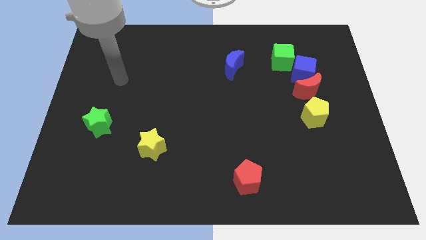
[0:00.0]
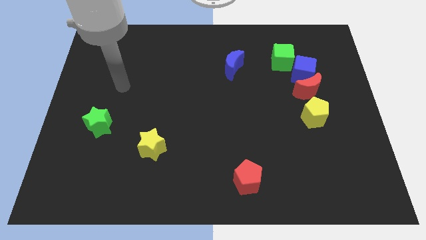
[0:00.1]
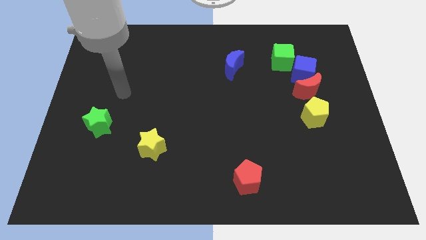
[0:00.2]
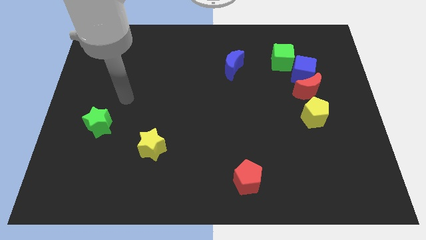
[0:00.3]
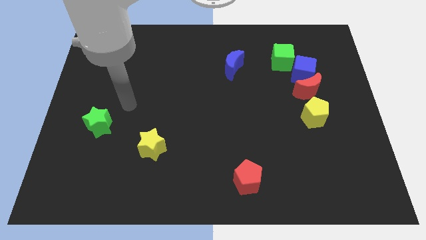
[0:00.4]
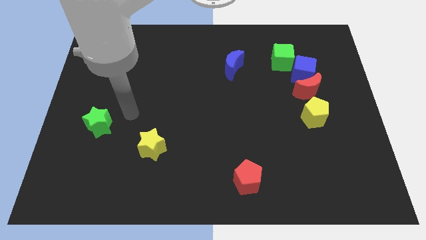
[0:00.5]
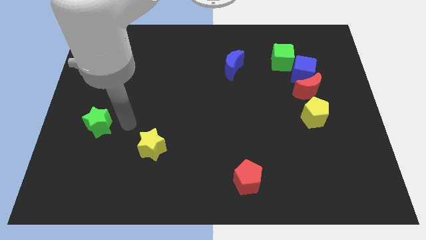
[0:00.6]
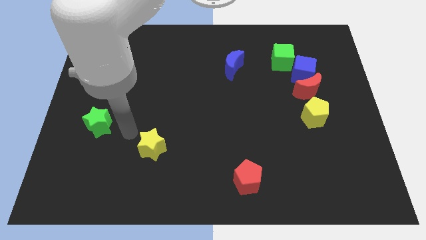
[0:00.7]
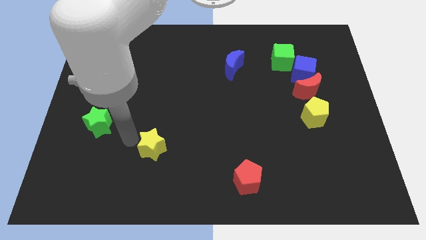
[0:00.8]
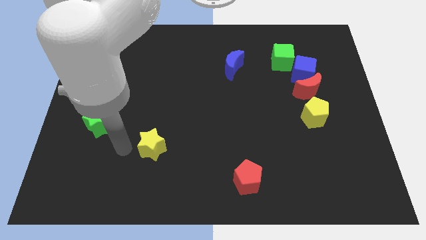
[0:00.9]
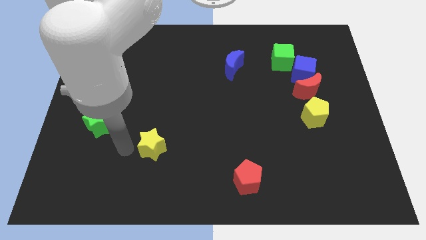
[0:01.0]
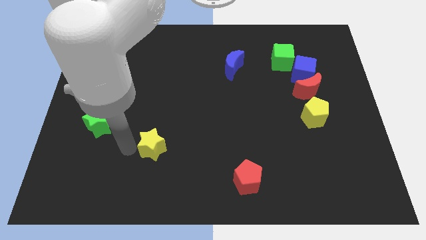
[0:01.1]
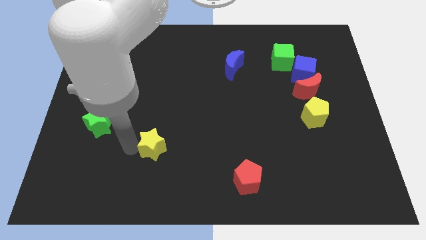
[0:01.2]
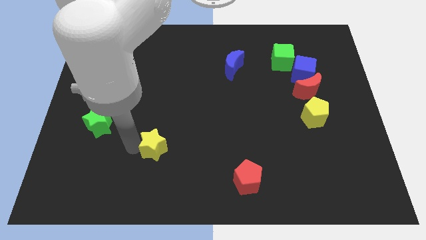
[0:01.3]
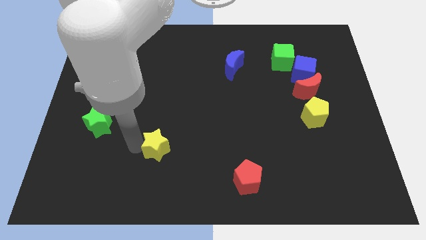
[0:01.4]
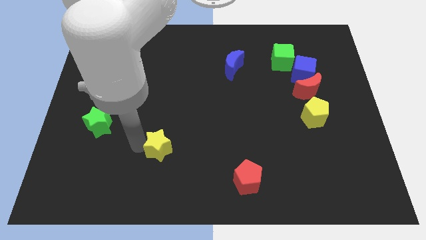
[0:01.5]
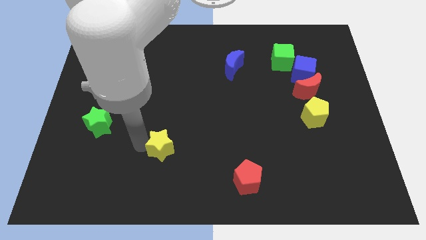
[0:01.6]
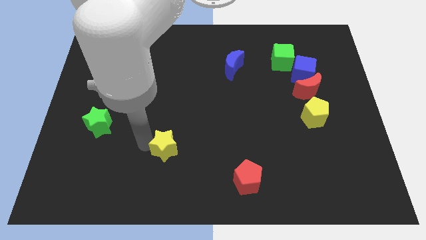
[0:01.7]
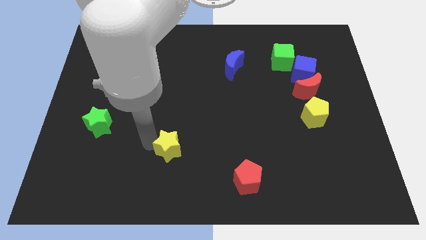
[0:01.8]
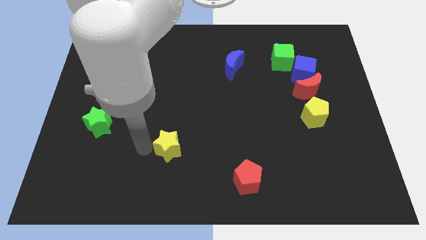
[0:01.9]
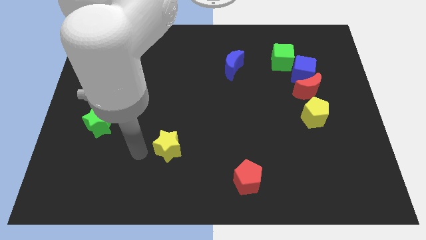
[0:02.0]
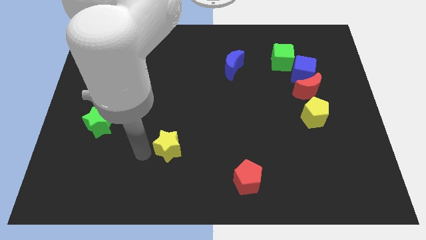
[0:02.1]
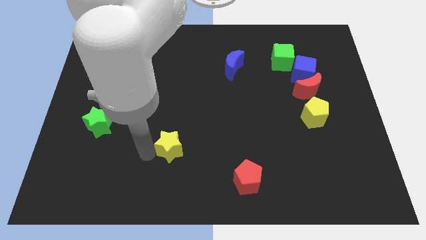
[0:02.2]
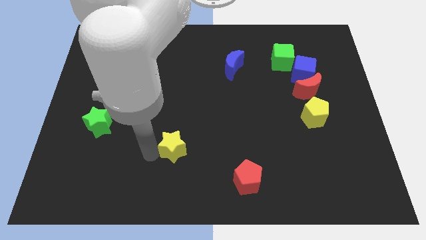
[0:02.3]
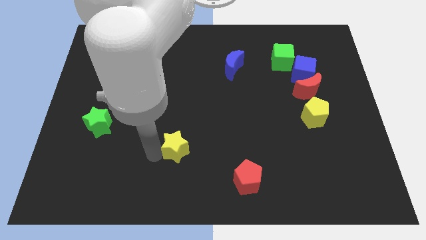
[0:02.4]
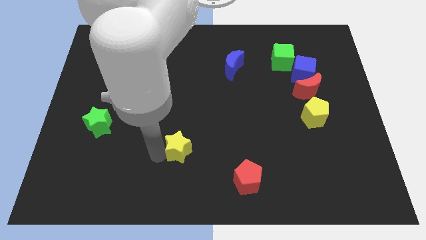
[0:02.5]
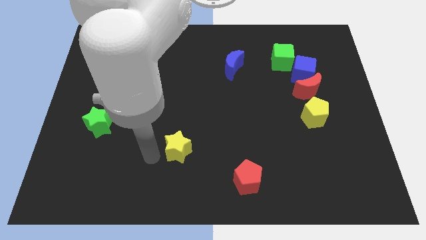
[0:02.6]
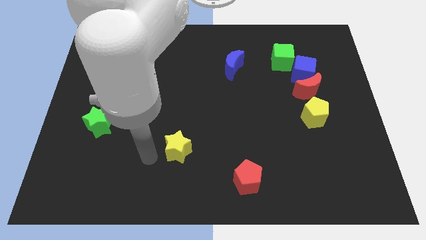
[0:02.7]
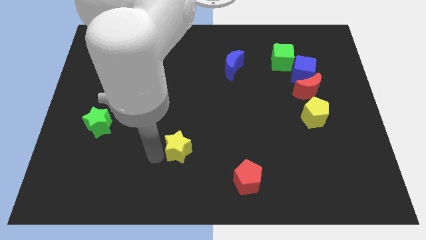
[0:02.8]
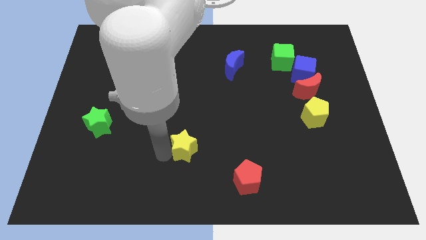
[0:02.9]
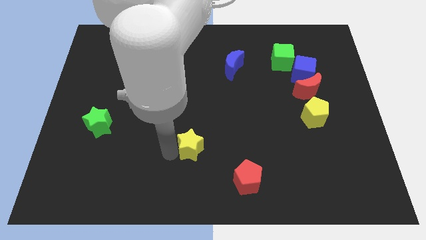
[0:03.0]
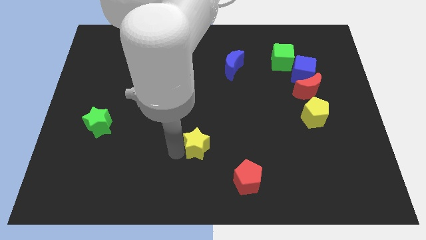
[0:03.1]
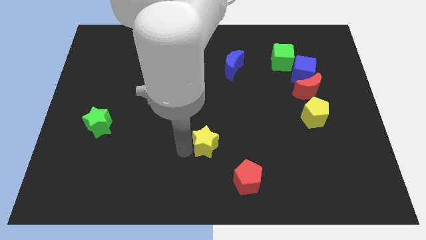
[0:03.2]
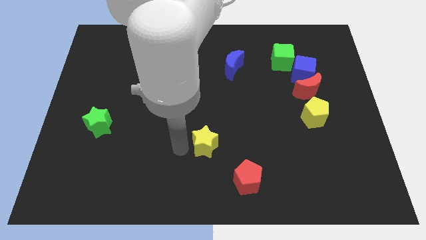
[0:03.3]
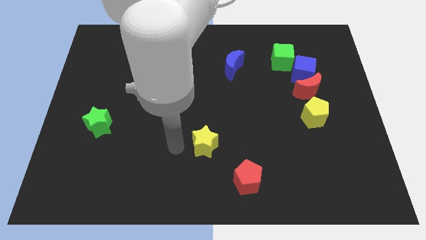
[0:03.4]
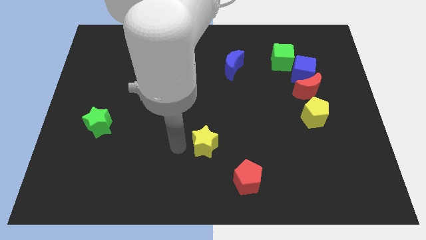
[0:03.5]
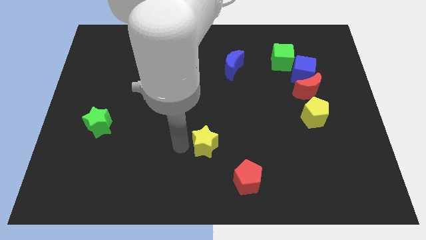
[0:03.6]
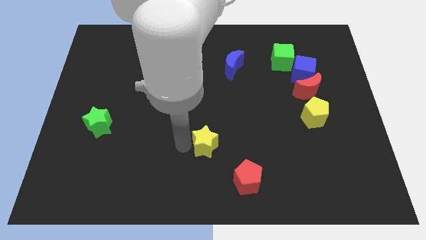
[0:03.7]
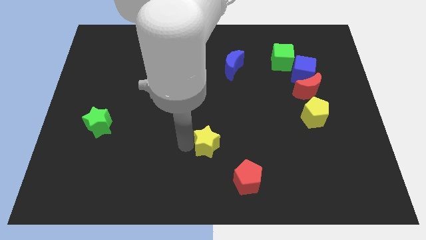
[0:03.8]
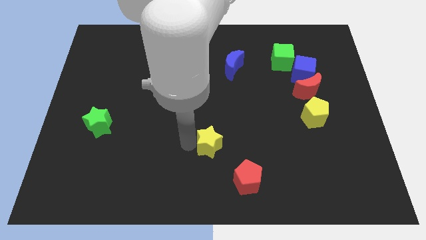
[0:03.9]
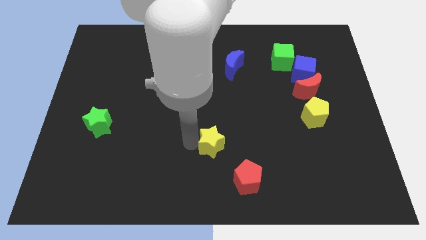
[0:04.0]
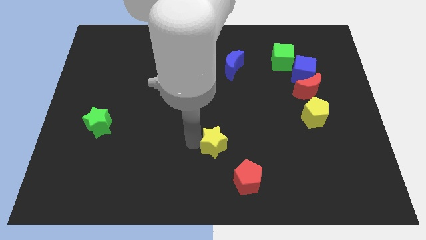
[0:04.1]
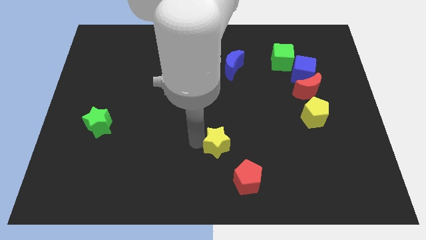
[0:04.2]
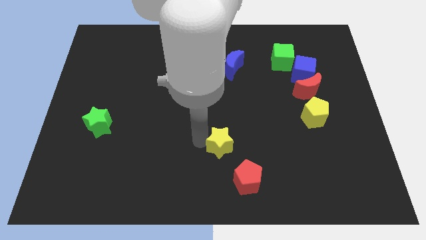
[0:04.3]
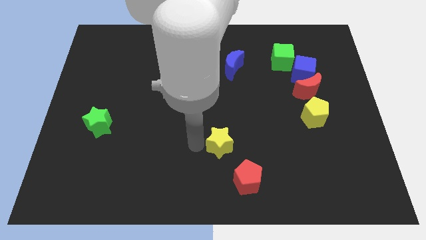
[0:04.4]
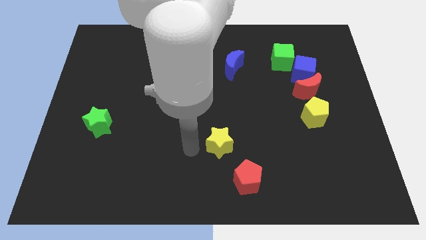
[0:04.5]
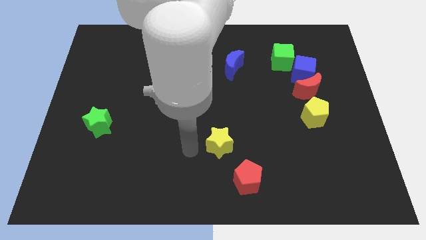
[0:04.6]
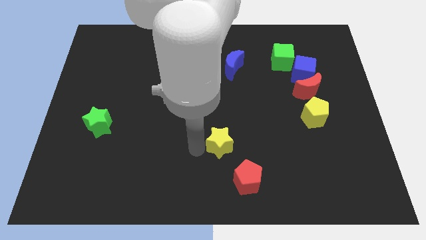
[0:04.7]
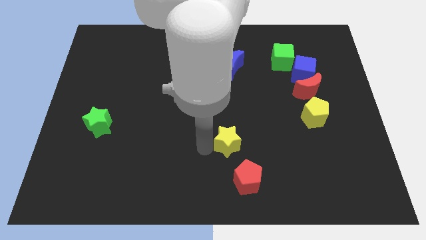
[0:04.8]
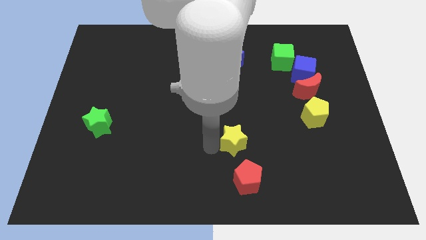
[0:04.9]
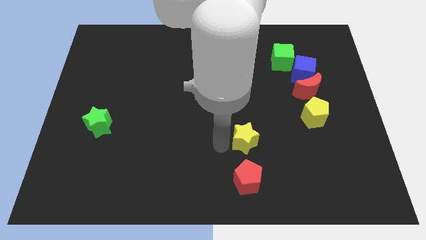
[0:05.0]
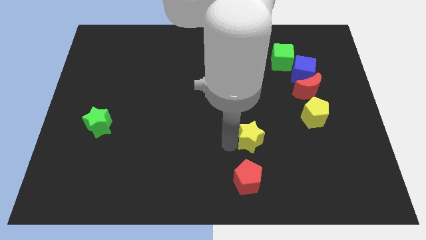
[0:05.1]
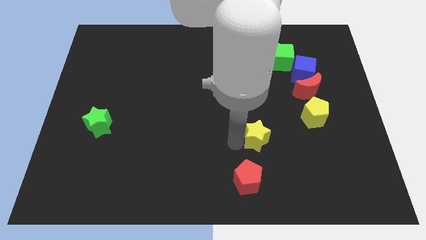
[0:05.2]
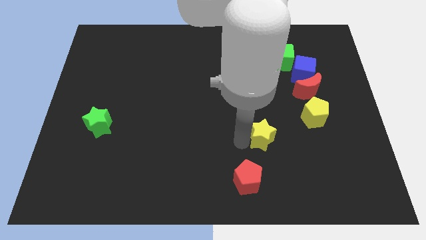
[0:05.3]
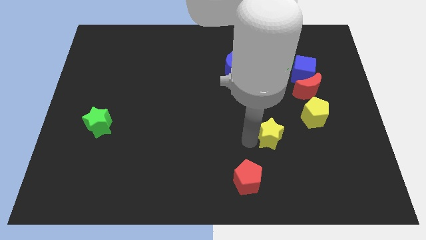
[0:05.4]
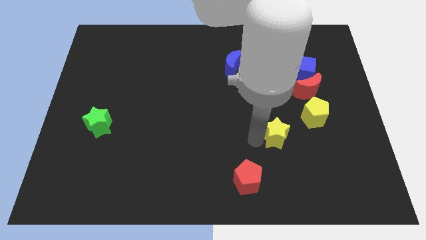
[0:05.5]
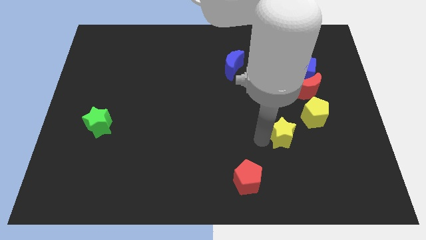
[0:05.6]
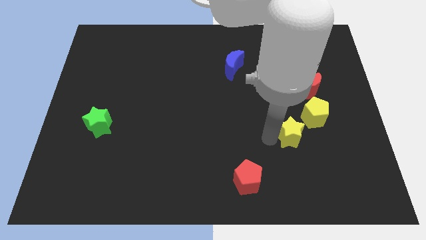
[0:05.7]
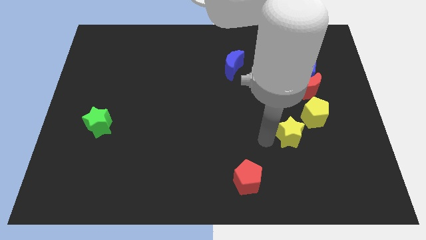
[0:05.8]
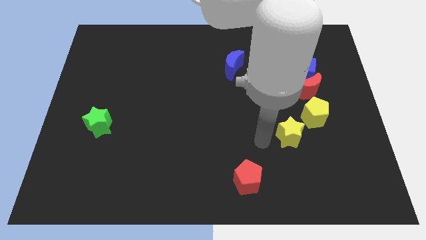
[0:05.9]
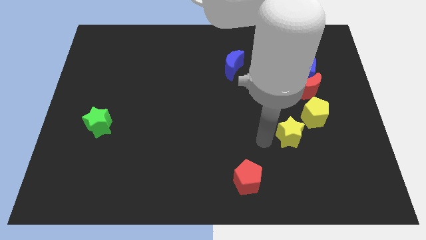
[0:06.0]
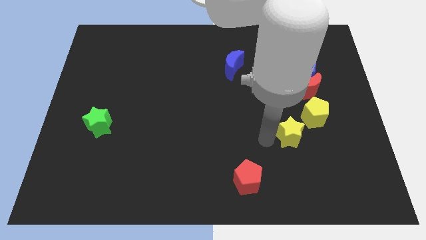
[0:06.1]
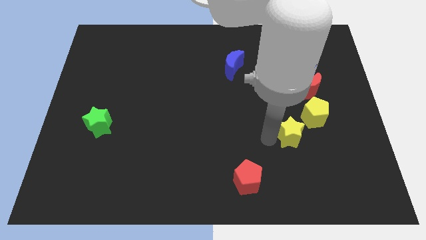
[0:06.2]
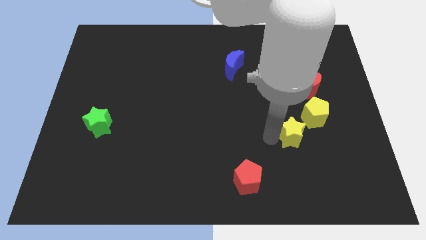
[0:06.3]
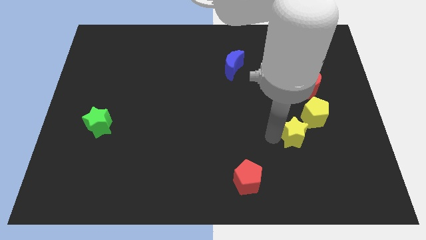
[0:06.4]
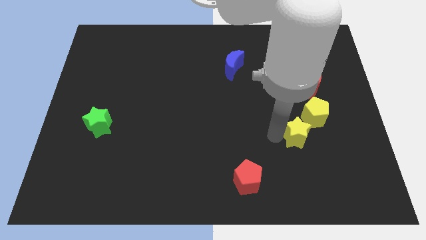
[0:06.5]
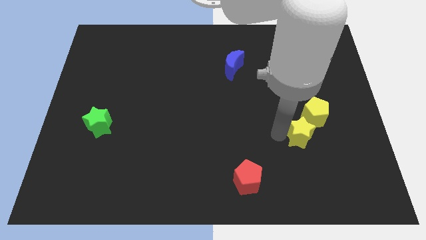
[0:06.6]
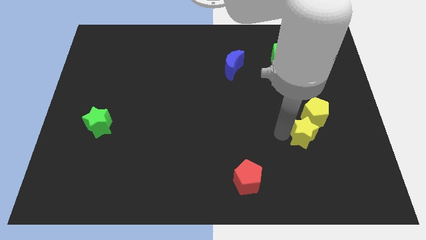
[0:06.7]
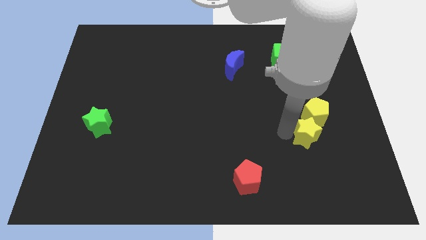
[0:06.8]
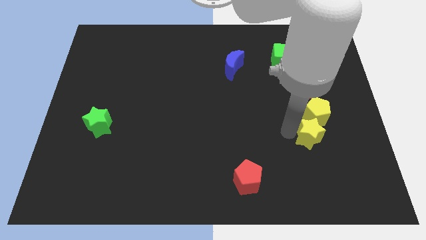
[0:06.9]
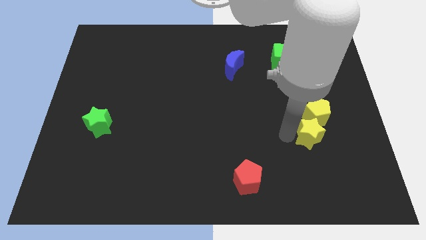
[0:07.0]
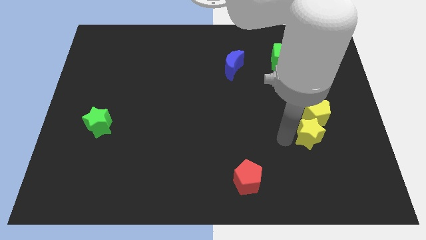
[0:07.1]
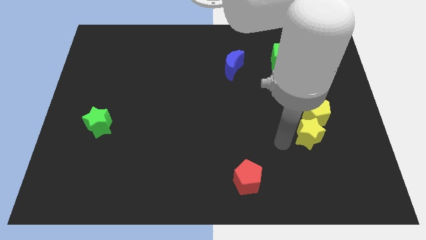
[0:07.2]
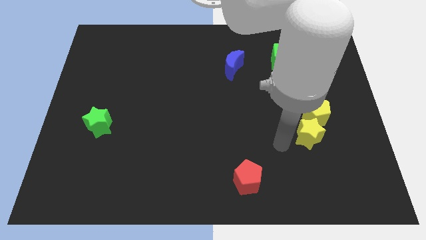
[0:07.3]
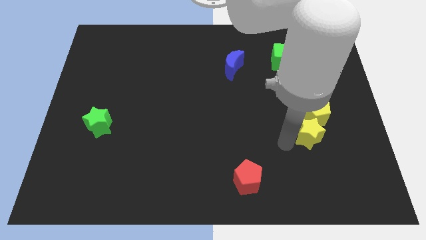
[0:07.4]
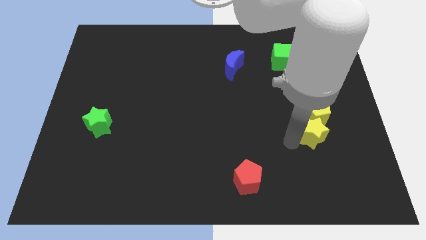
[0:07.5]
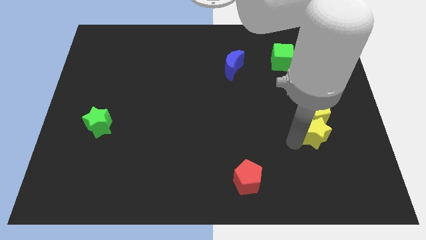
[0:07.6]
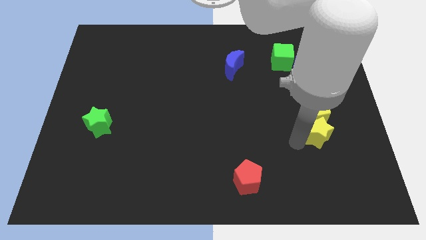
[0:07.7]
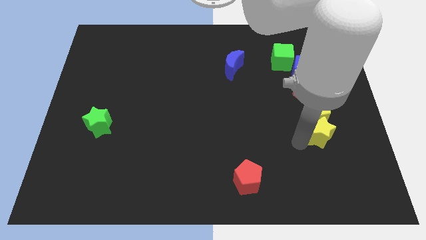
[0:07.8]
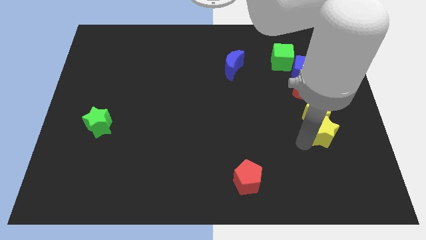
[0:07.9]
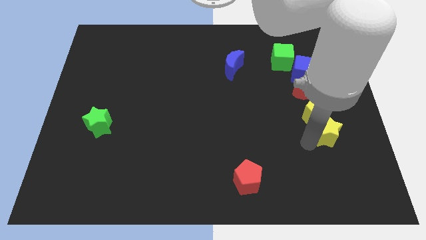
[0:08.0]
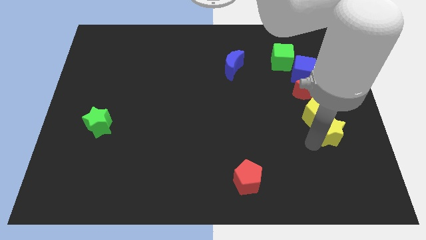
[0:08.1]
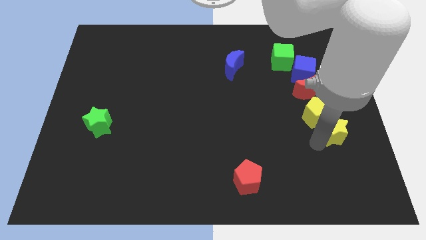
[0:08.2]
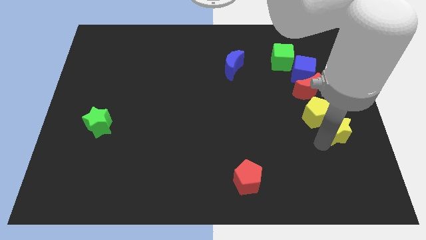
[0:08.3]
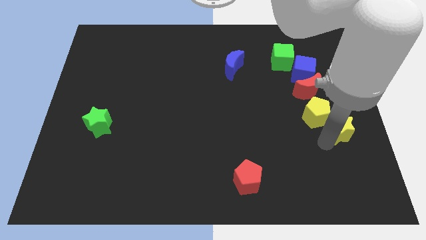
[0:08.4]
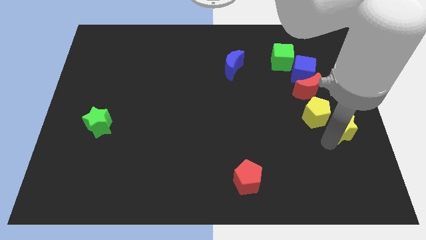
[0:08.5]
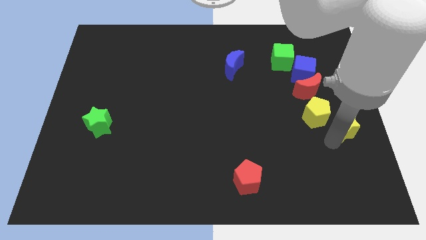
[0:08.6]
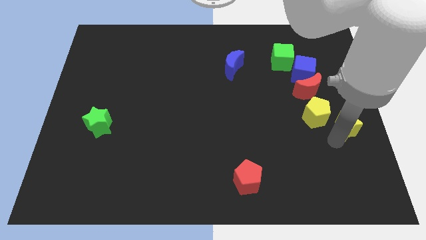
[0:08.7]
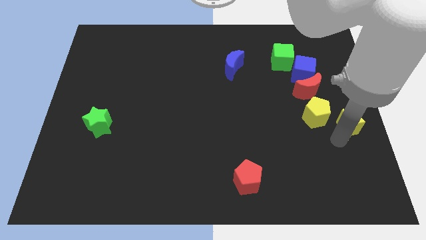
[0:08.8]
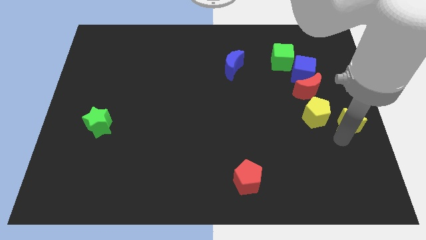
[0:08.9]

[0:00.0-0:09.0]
put the yellow star diagonally down and to the right of the red moon
